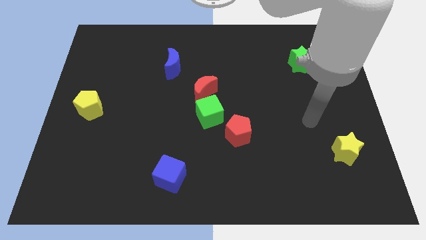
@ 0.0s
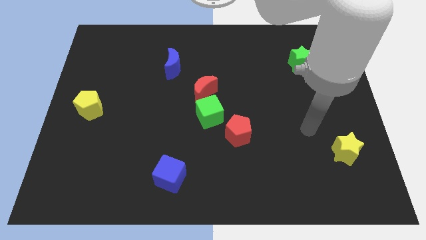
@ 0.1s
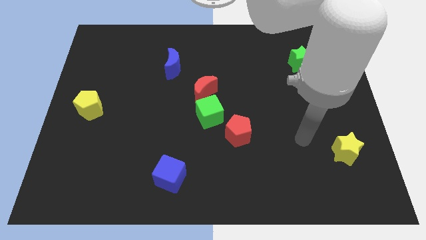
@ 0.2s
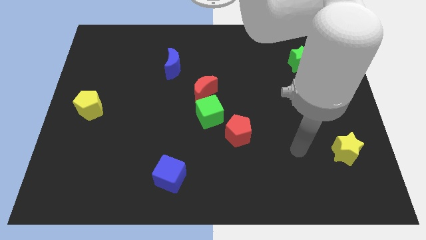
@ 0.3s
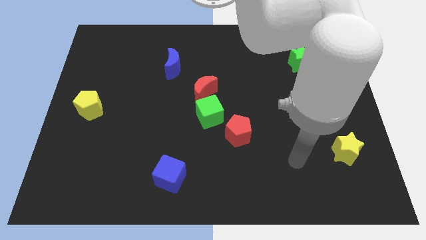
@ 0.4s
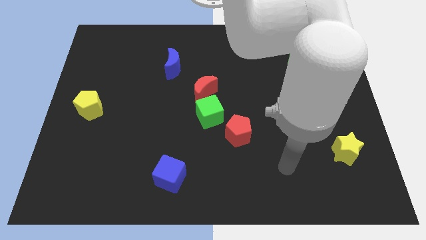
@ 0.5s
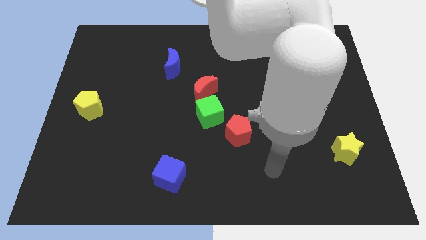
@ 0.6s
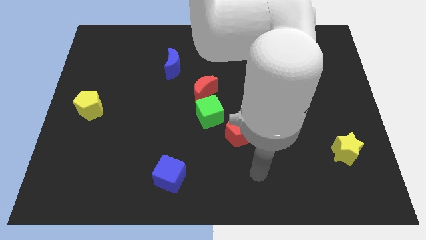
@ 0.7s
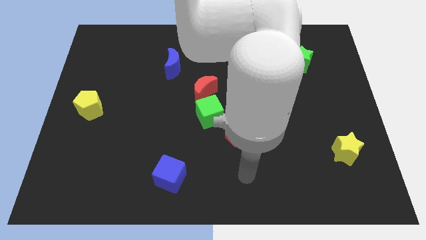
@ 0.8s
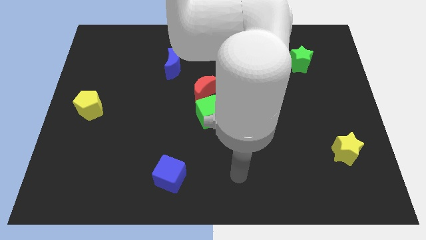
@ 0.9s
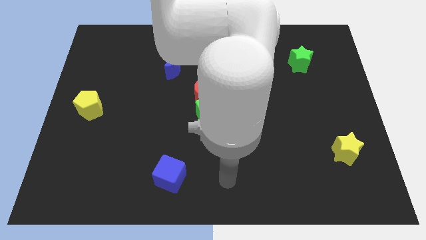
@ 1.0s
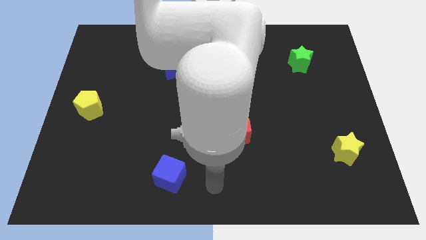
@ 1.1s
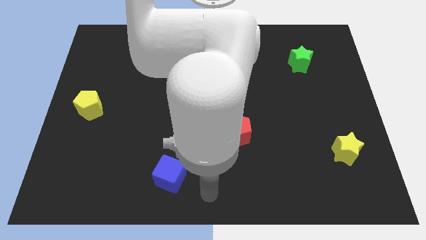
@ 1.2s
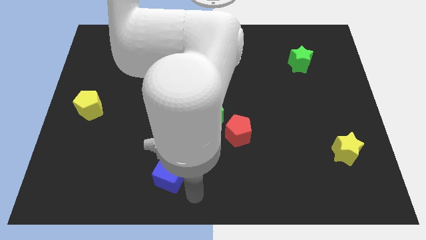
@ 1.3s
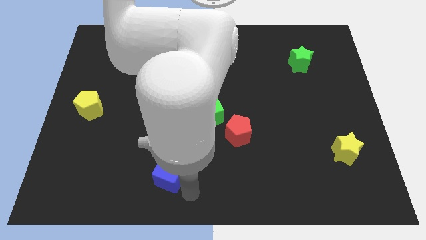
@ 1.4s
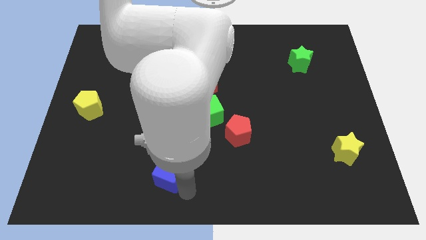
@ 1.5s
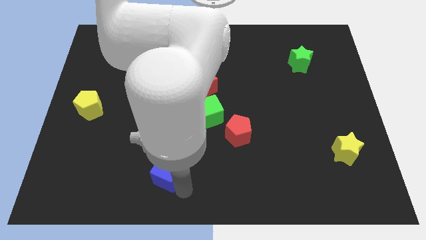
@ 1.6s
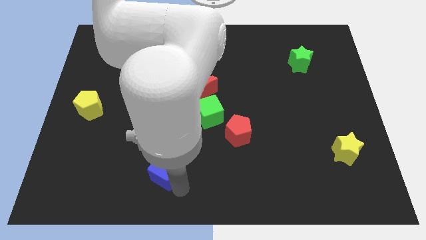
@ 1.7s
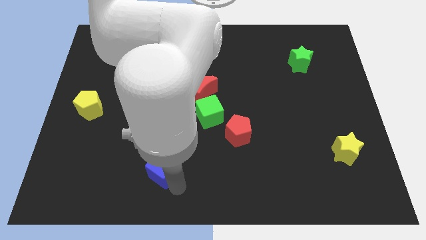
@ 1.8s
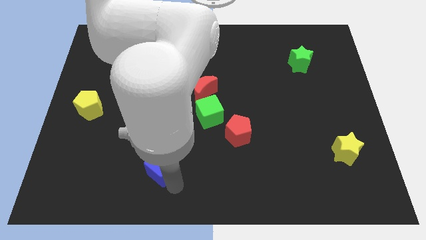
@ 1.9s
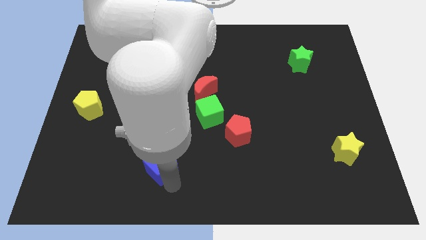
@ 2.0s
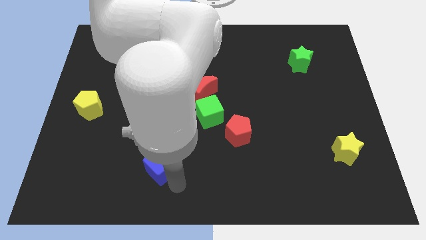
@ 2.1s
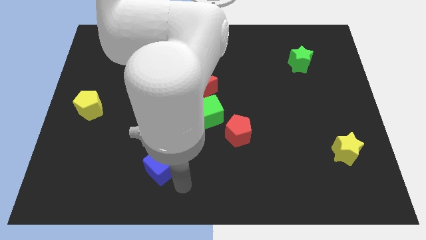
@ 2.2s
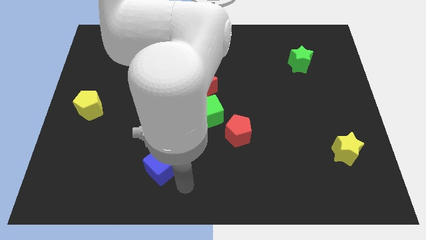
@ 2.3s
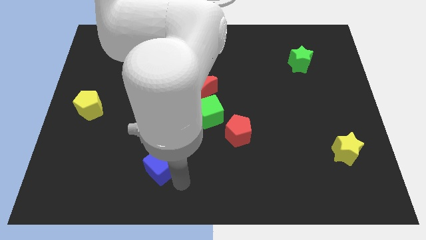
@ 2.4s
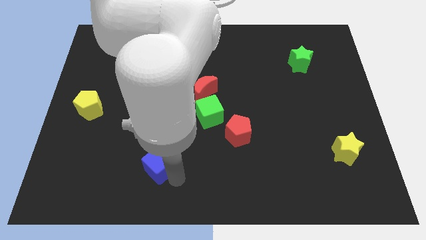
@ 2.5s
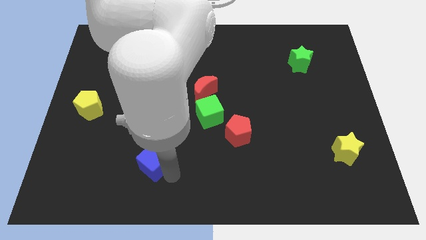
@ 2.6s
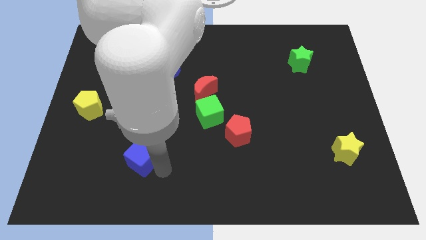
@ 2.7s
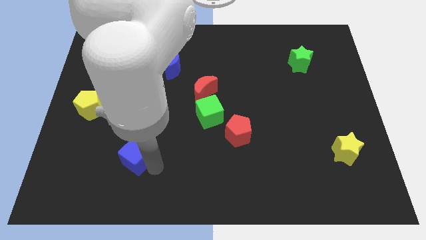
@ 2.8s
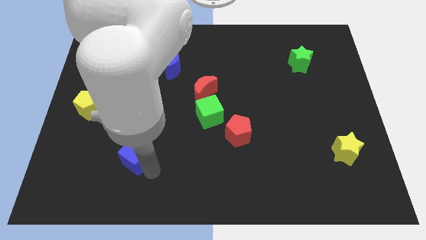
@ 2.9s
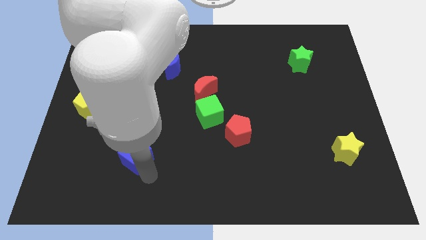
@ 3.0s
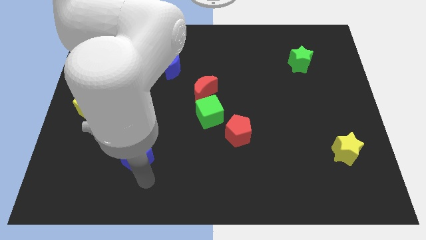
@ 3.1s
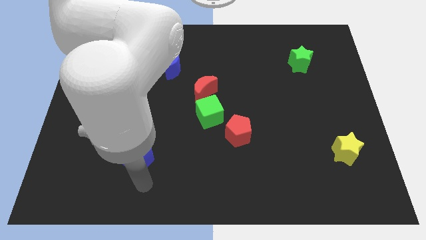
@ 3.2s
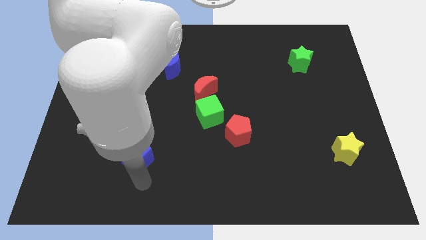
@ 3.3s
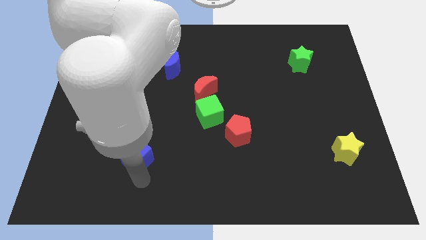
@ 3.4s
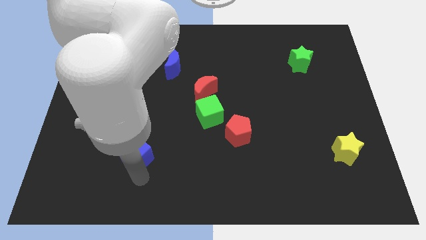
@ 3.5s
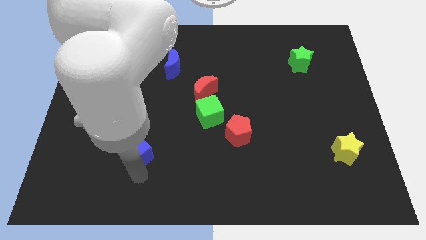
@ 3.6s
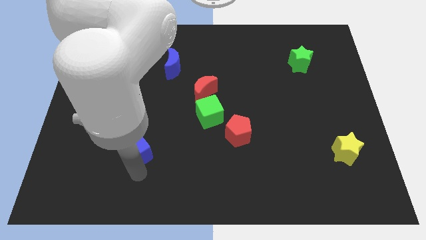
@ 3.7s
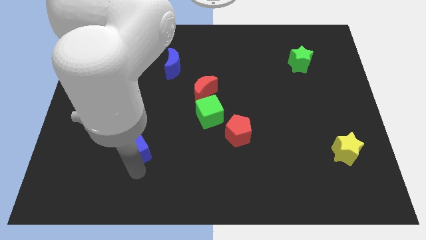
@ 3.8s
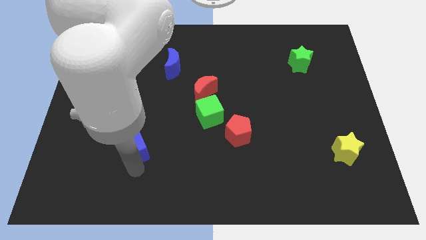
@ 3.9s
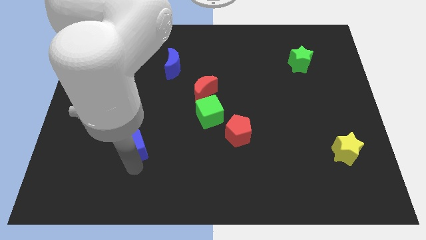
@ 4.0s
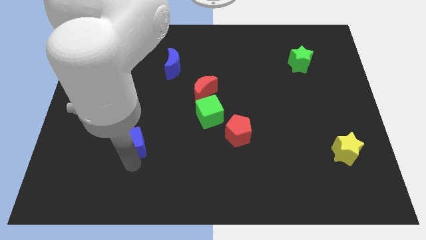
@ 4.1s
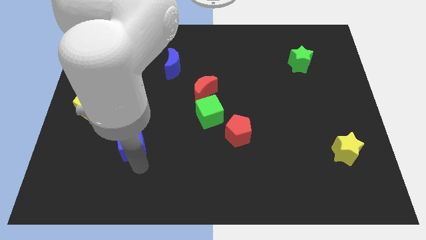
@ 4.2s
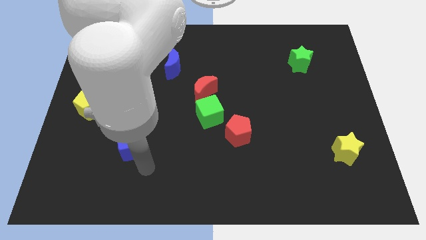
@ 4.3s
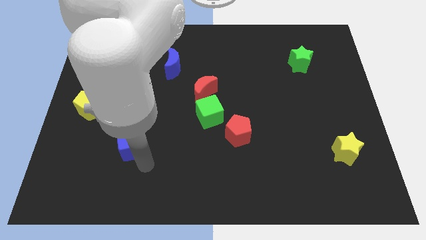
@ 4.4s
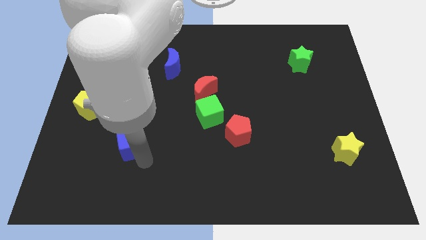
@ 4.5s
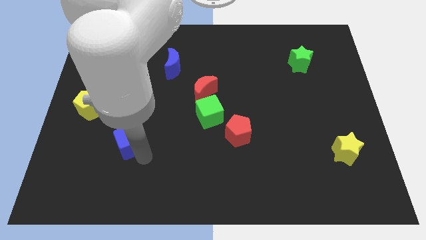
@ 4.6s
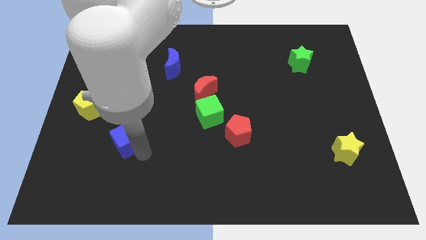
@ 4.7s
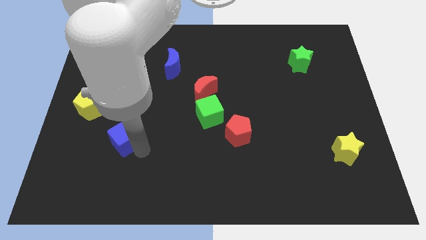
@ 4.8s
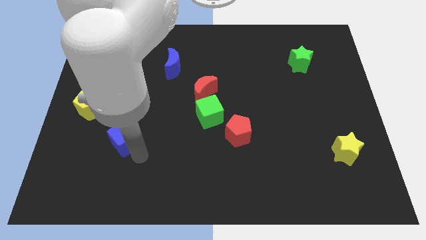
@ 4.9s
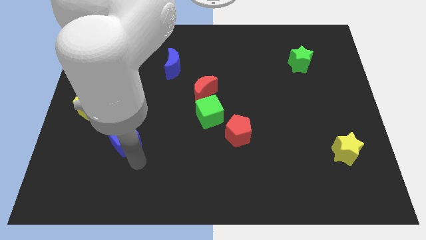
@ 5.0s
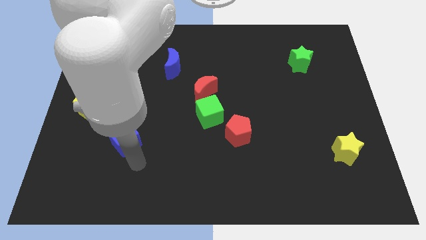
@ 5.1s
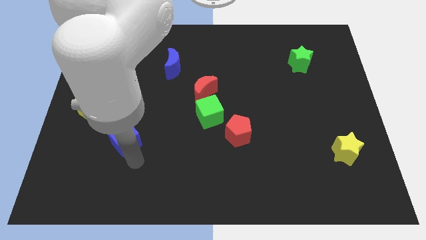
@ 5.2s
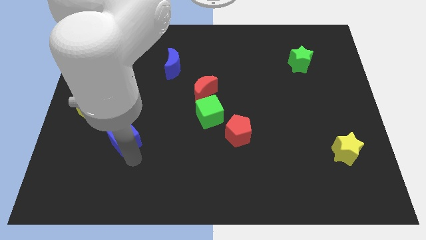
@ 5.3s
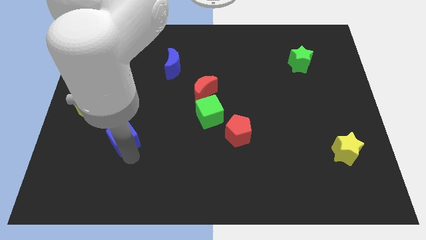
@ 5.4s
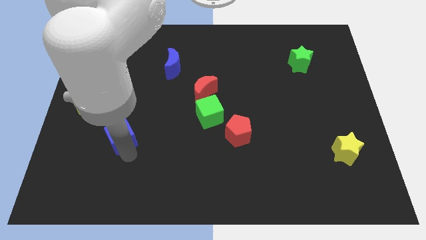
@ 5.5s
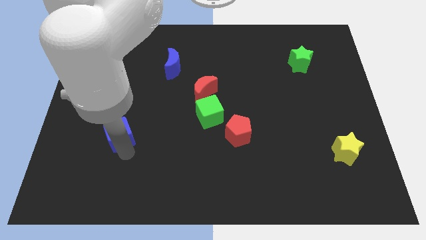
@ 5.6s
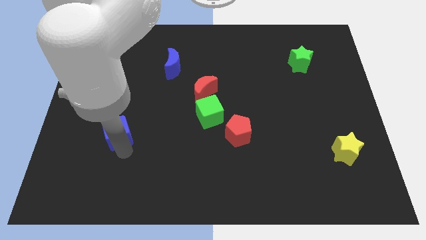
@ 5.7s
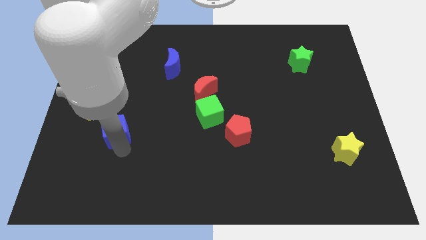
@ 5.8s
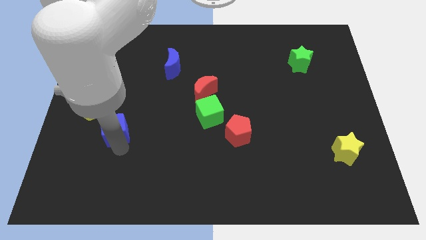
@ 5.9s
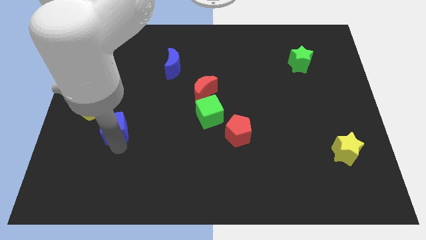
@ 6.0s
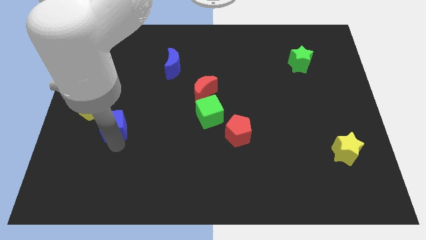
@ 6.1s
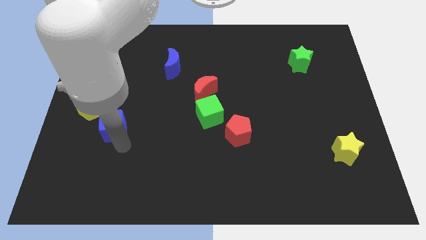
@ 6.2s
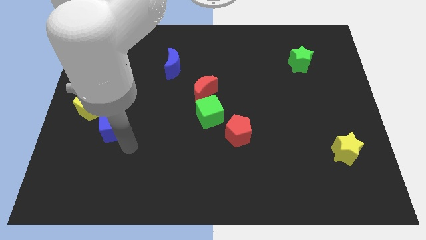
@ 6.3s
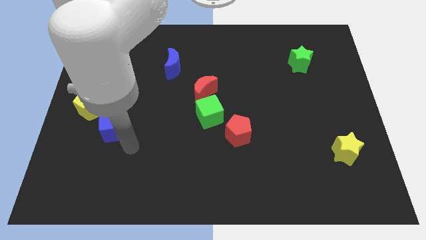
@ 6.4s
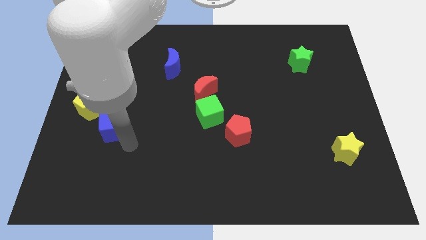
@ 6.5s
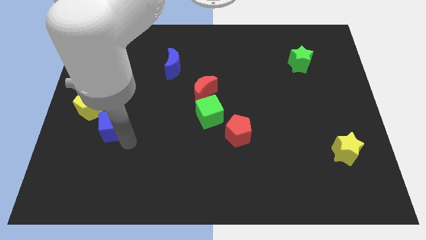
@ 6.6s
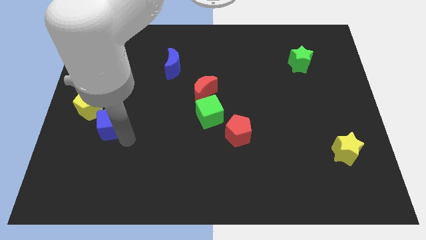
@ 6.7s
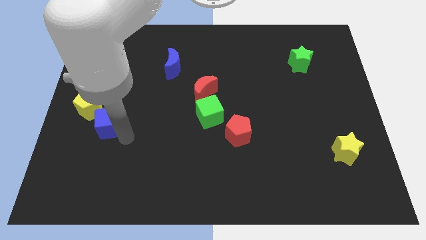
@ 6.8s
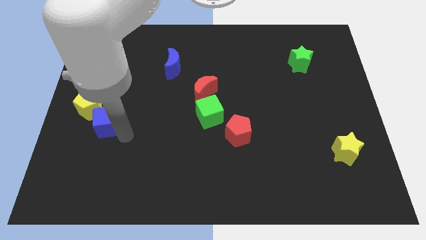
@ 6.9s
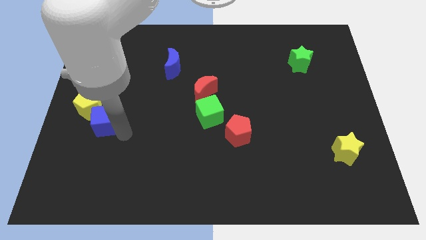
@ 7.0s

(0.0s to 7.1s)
move the blue cube next to the yellow pentagon
